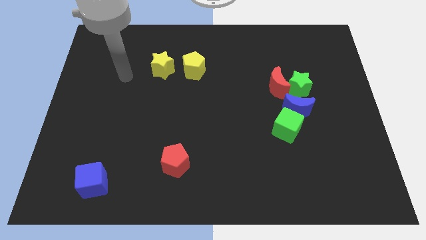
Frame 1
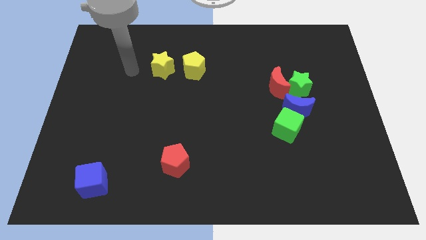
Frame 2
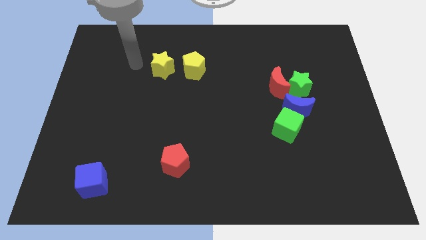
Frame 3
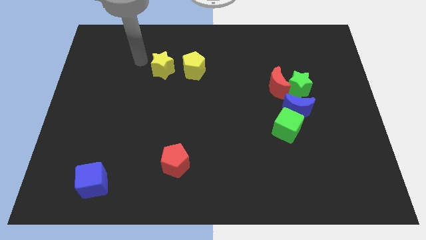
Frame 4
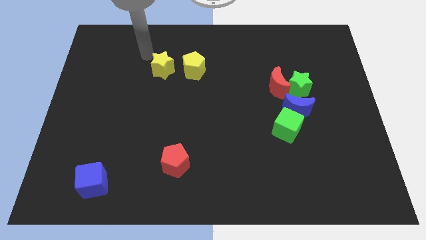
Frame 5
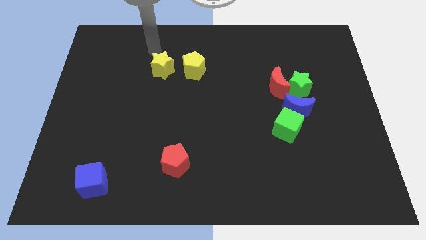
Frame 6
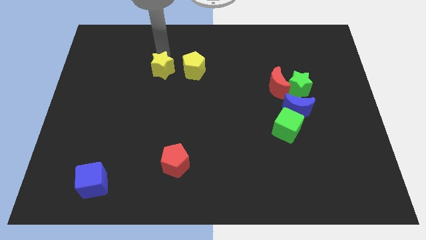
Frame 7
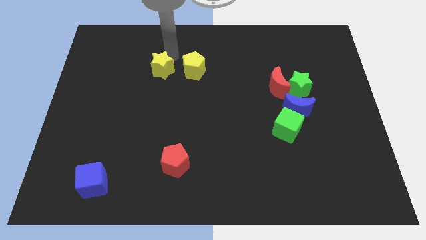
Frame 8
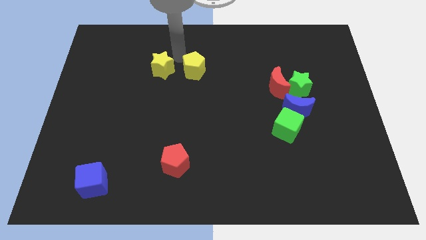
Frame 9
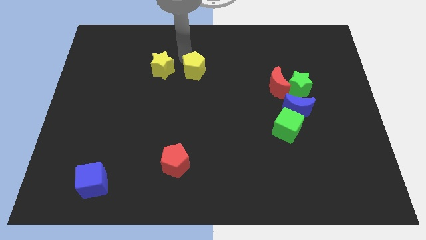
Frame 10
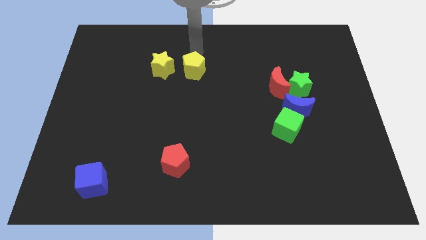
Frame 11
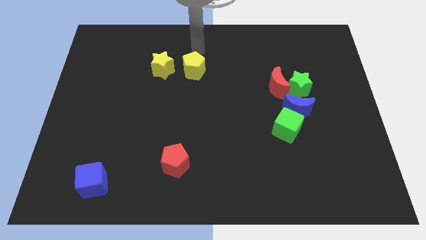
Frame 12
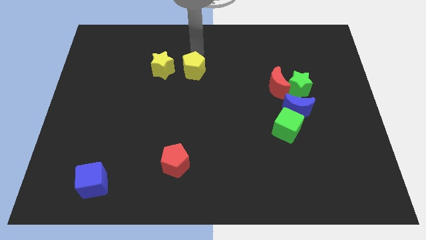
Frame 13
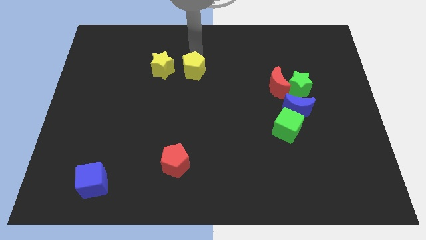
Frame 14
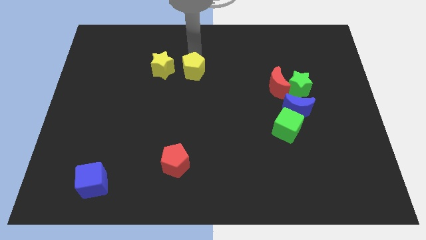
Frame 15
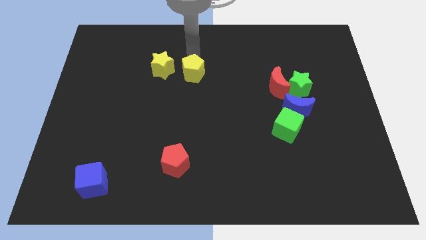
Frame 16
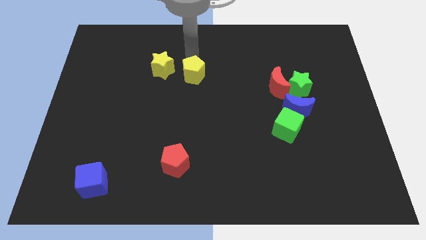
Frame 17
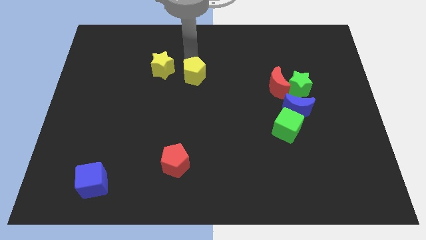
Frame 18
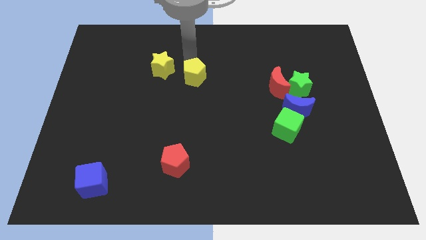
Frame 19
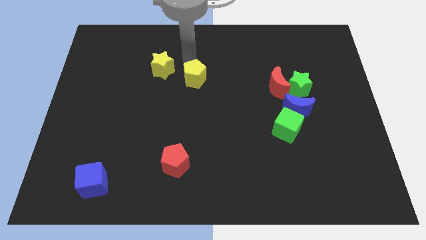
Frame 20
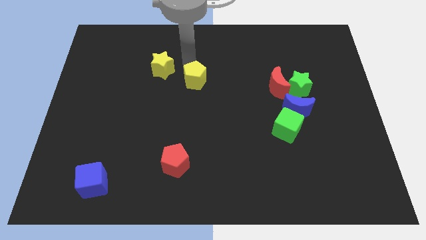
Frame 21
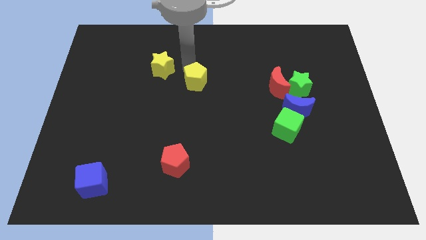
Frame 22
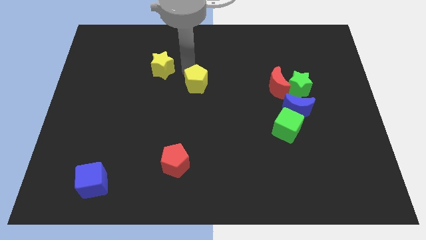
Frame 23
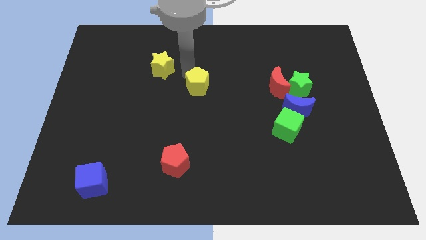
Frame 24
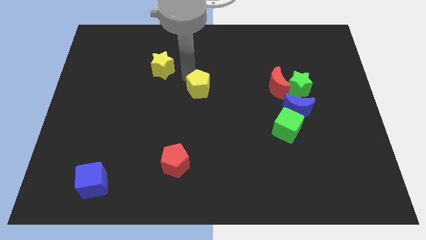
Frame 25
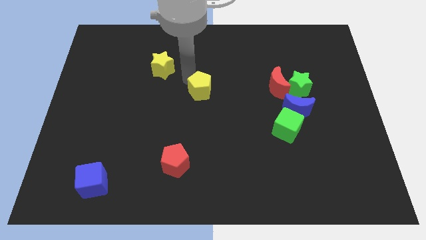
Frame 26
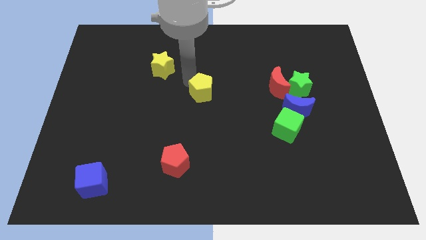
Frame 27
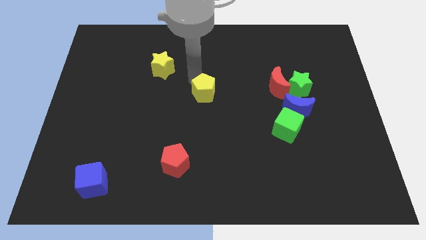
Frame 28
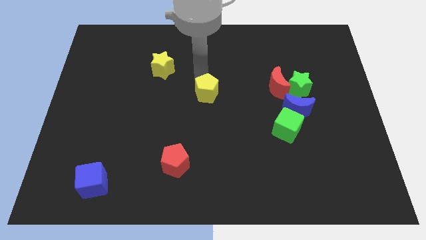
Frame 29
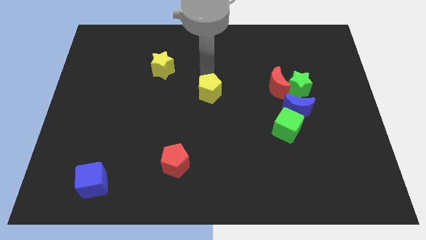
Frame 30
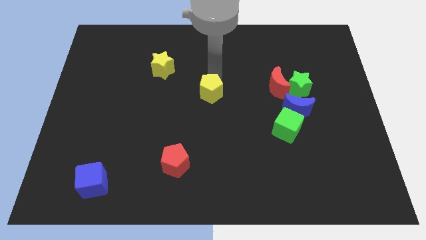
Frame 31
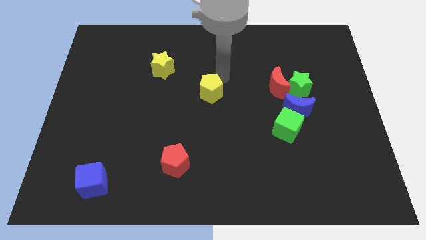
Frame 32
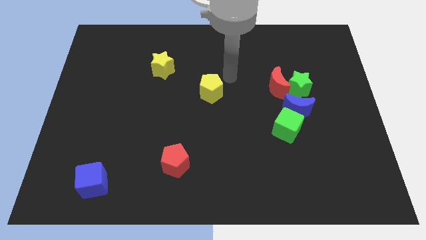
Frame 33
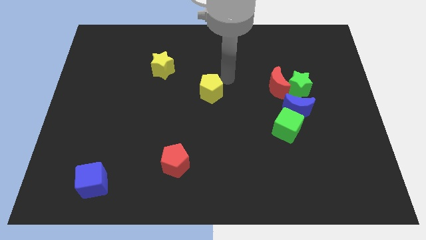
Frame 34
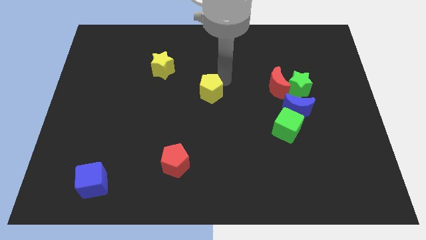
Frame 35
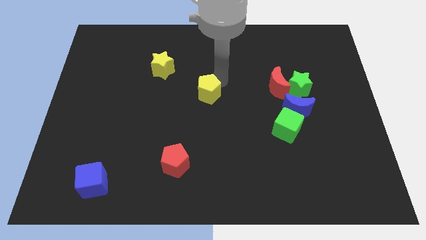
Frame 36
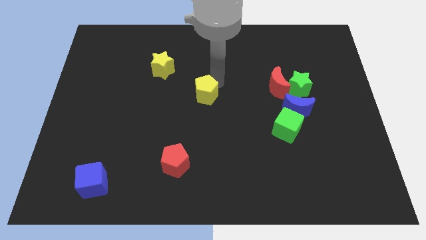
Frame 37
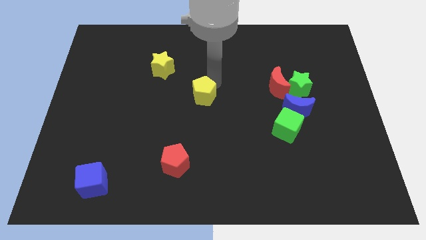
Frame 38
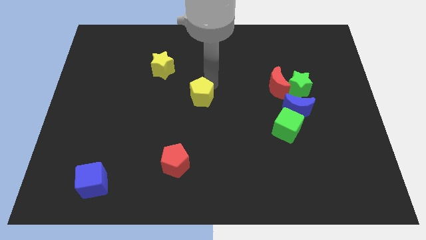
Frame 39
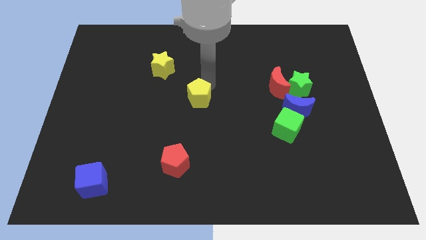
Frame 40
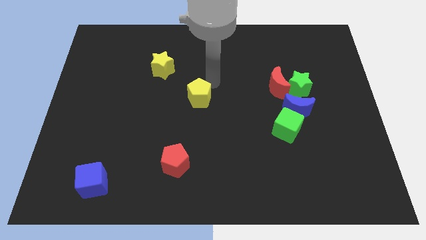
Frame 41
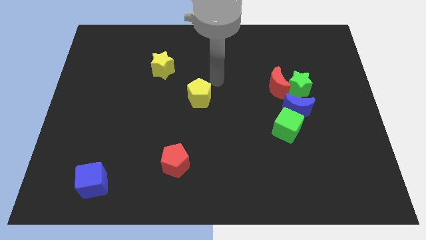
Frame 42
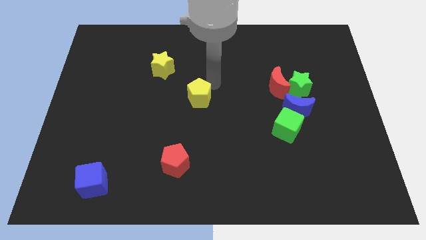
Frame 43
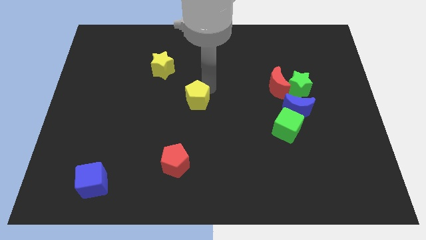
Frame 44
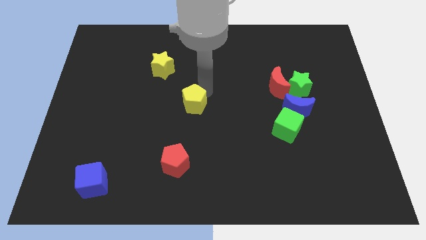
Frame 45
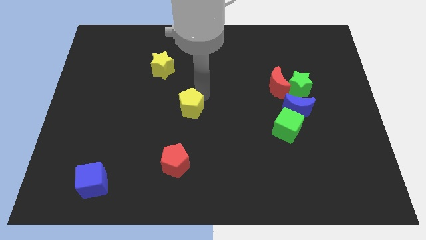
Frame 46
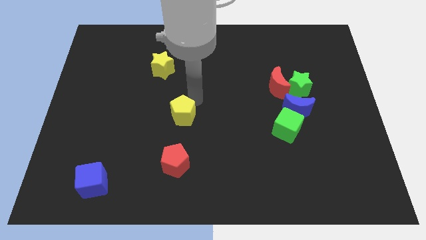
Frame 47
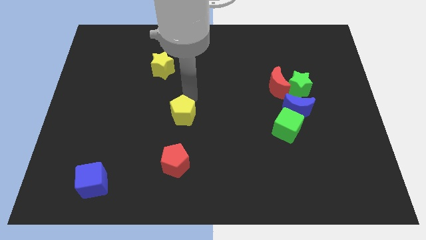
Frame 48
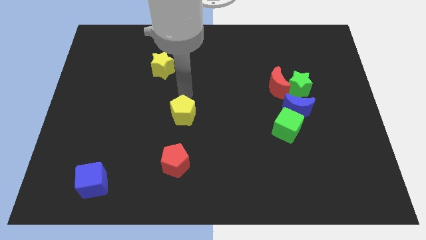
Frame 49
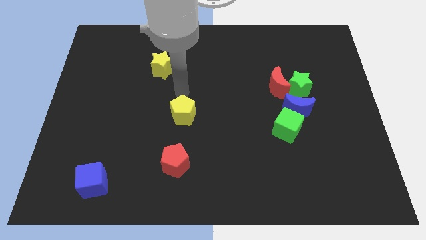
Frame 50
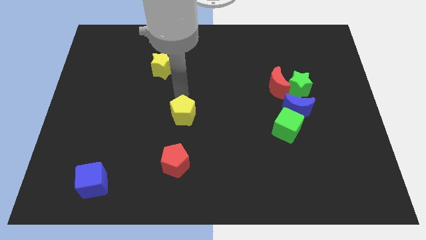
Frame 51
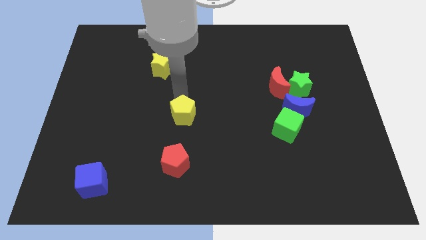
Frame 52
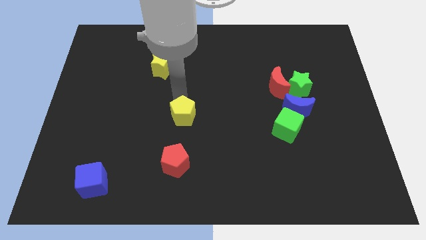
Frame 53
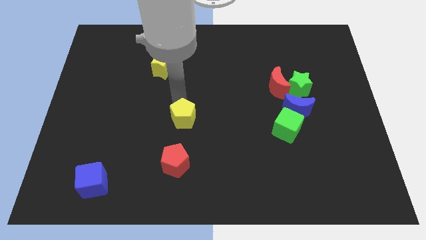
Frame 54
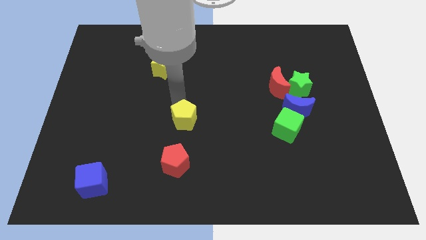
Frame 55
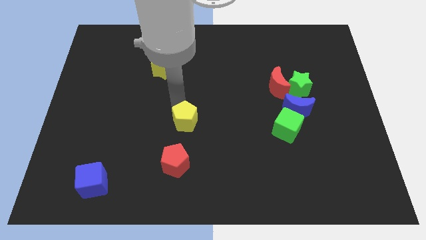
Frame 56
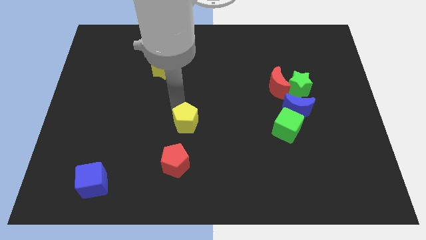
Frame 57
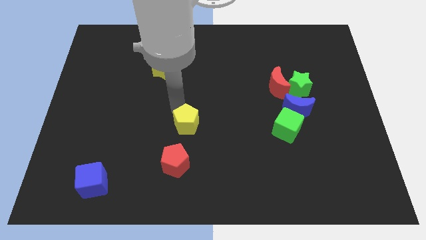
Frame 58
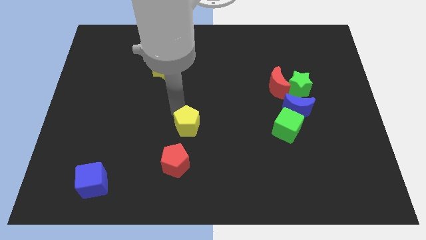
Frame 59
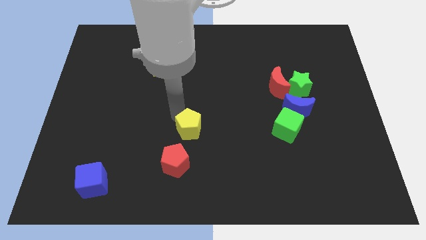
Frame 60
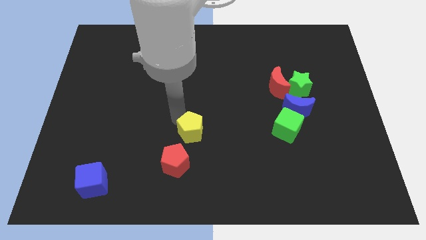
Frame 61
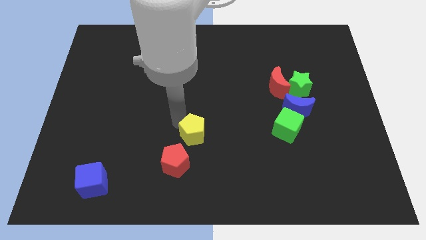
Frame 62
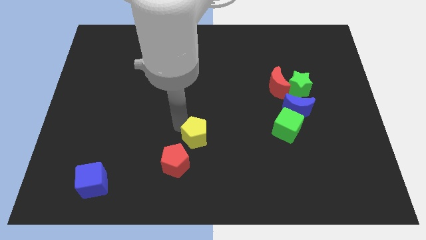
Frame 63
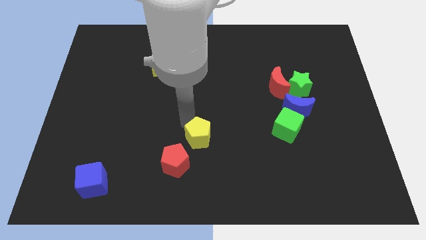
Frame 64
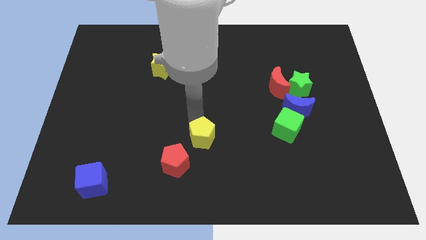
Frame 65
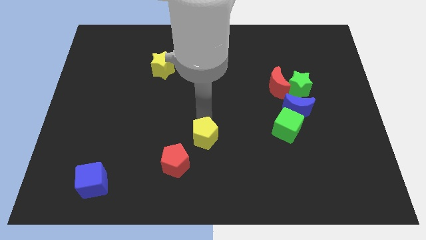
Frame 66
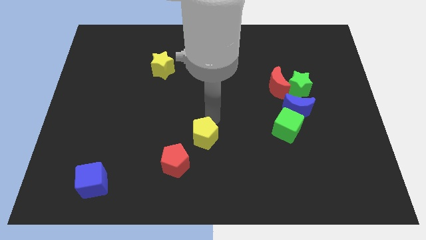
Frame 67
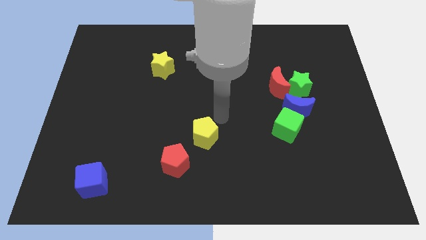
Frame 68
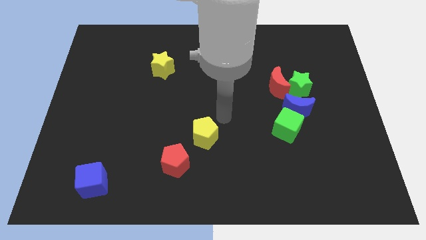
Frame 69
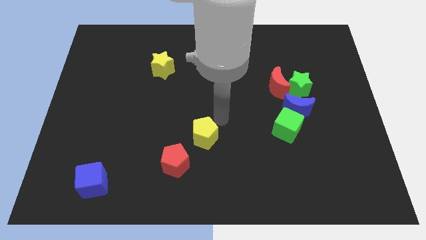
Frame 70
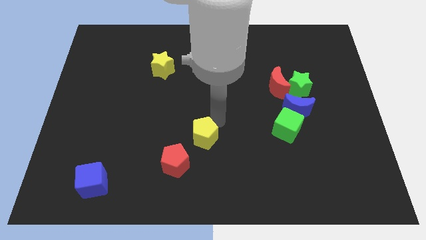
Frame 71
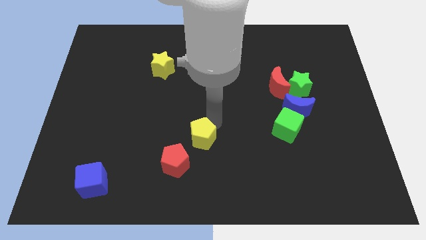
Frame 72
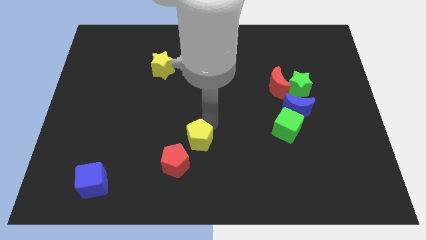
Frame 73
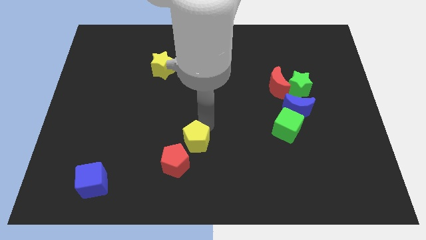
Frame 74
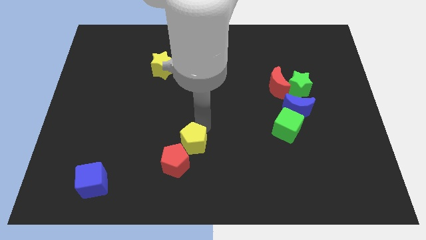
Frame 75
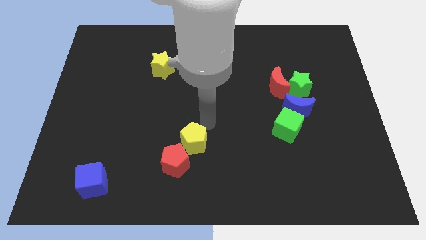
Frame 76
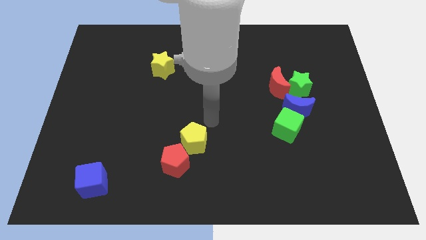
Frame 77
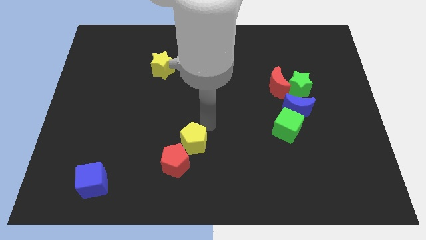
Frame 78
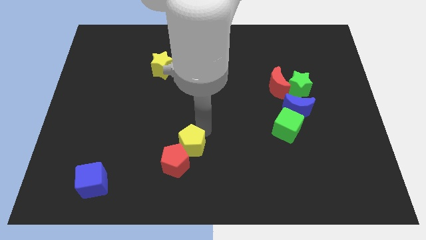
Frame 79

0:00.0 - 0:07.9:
push the yellow pentagon towards the red pentagon

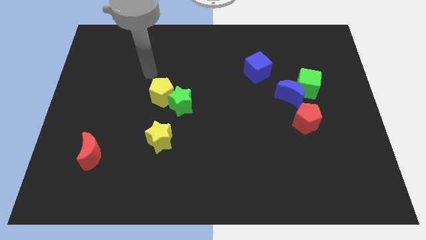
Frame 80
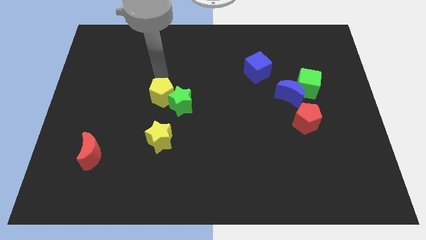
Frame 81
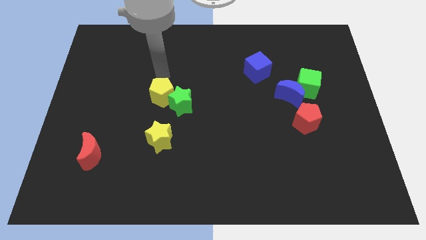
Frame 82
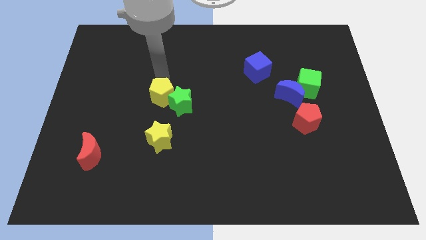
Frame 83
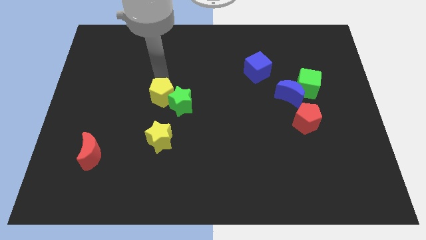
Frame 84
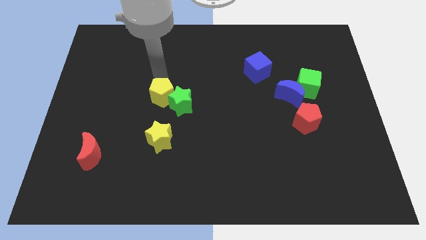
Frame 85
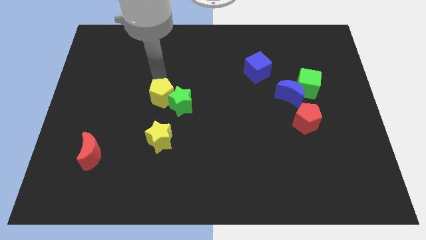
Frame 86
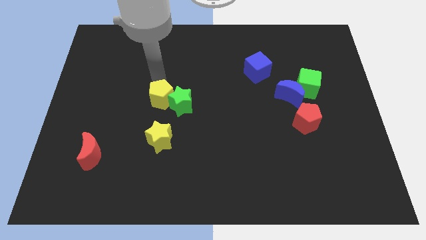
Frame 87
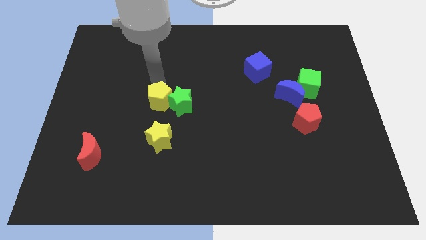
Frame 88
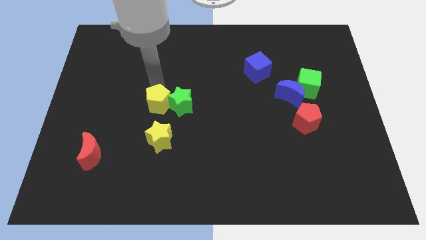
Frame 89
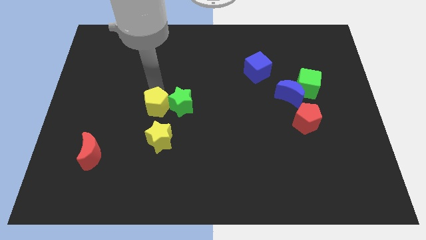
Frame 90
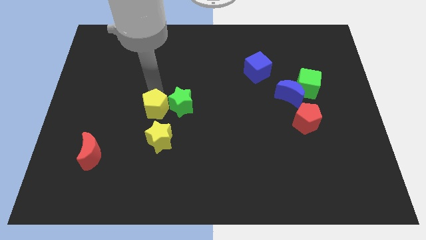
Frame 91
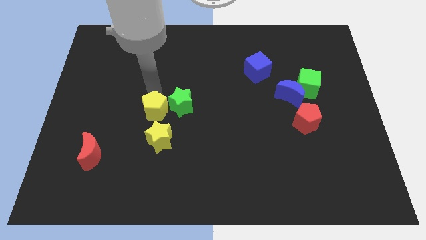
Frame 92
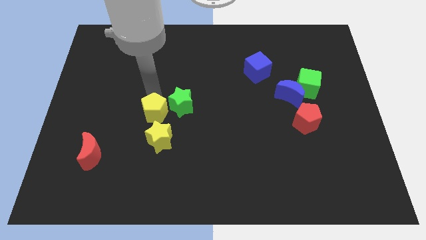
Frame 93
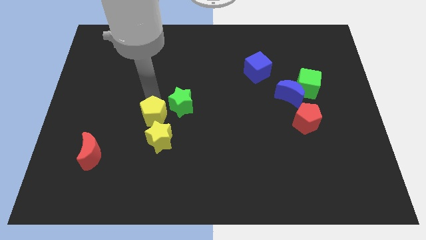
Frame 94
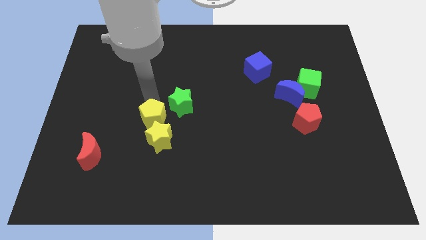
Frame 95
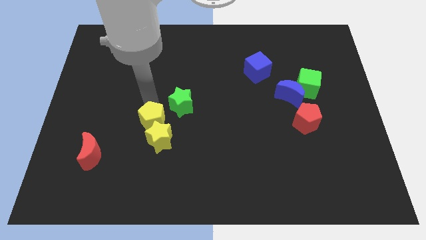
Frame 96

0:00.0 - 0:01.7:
push the yellow pentagon next to the yellow star
